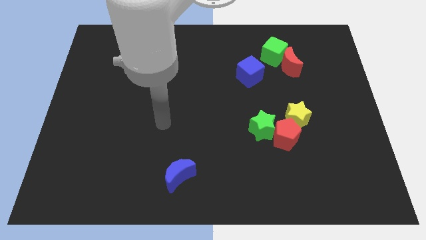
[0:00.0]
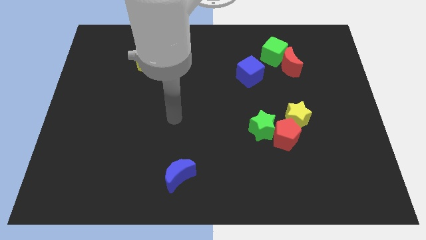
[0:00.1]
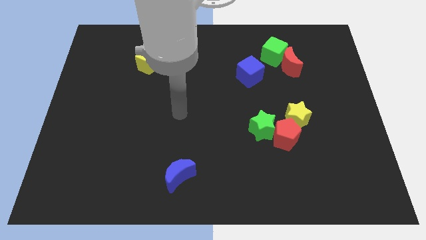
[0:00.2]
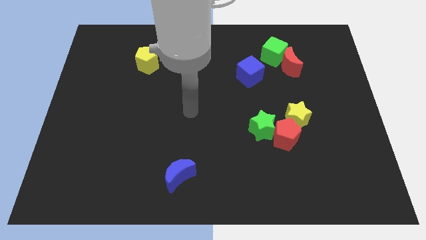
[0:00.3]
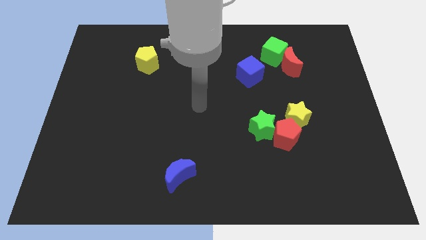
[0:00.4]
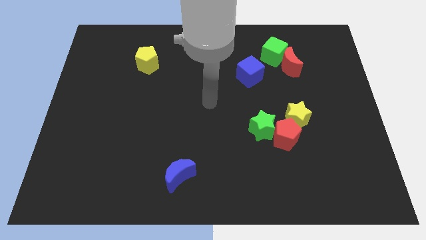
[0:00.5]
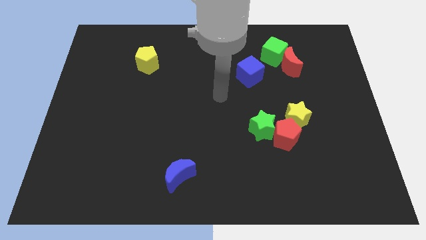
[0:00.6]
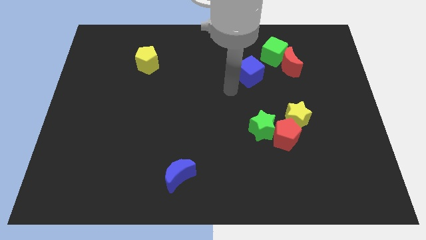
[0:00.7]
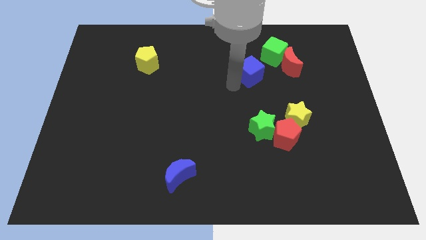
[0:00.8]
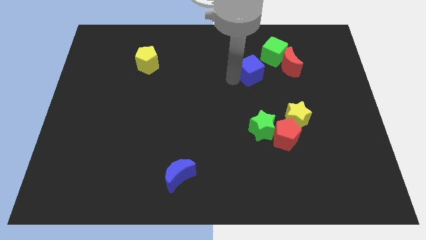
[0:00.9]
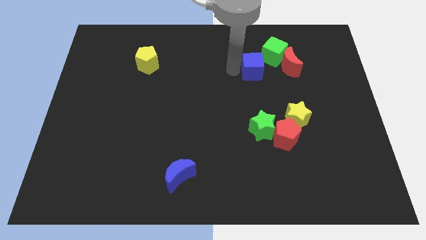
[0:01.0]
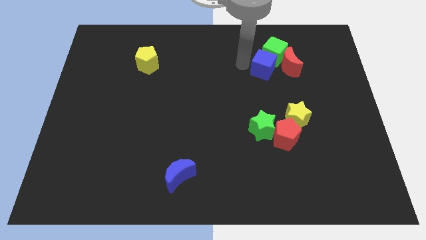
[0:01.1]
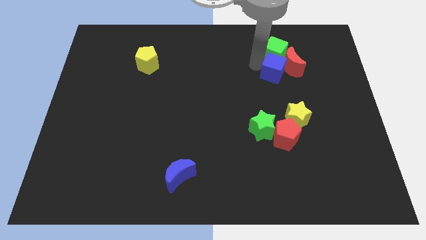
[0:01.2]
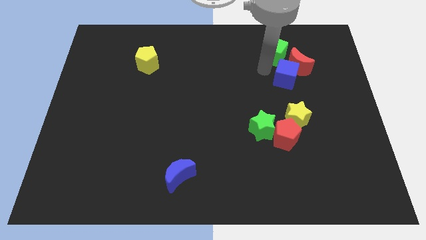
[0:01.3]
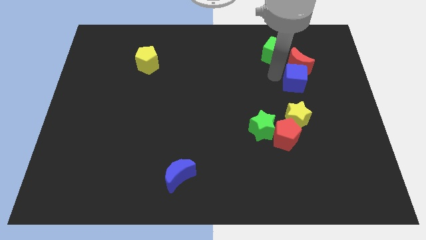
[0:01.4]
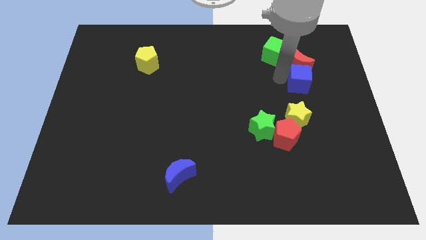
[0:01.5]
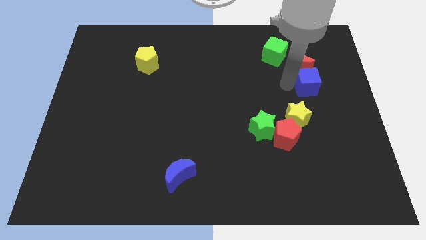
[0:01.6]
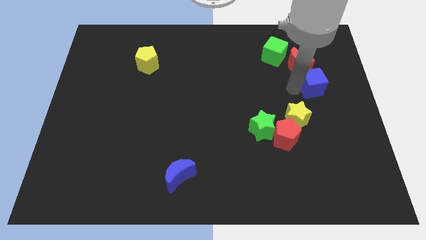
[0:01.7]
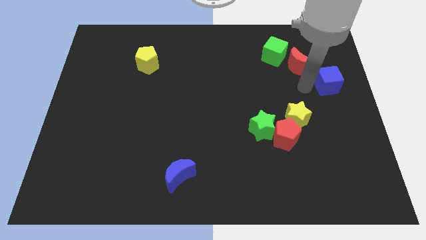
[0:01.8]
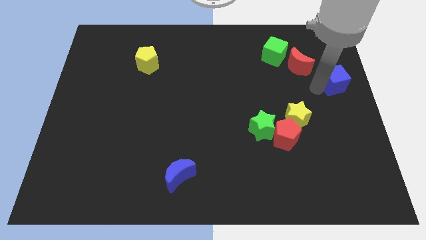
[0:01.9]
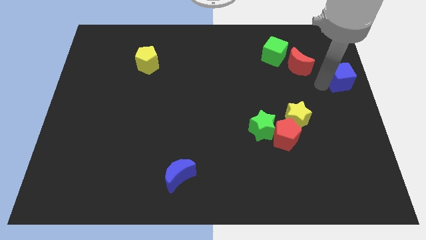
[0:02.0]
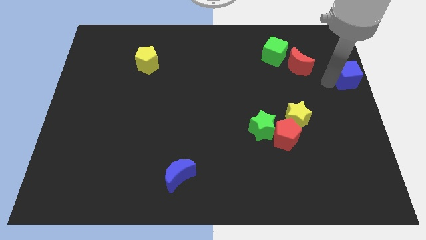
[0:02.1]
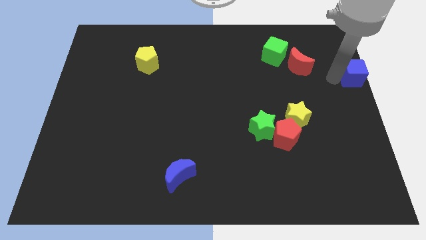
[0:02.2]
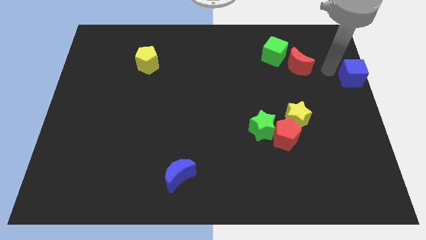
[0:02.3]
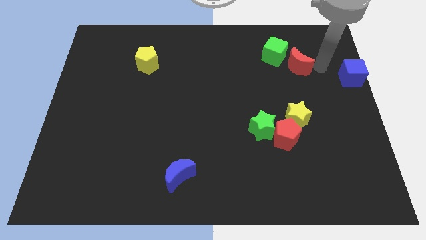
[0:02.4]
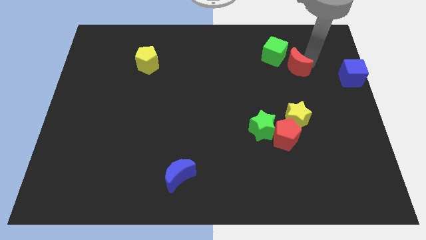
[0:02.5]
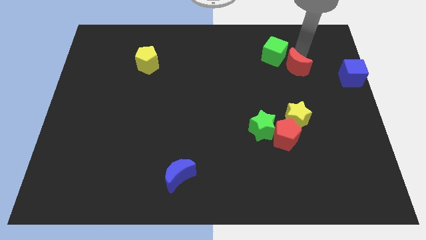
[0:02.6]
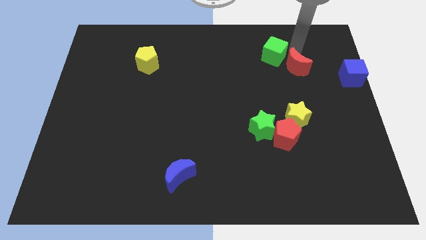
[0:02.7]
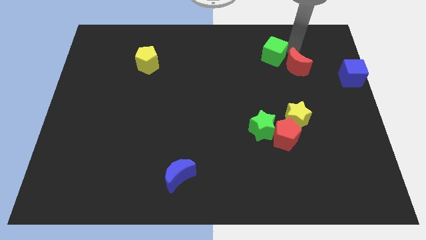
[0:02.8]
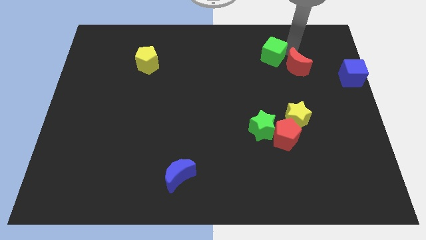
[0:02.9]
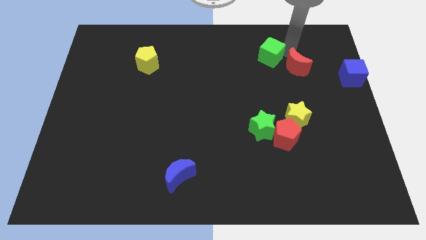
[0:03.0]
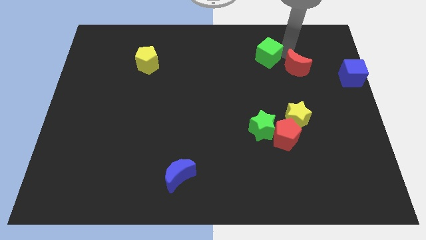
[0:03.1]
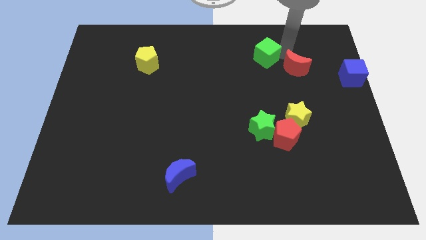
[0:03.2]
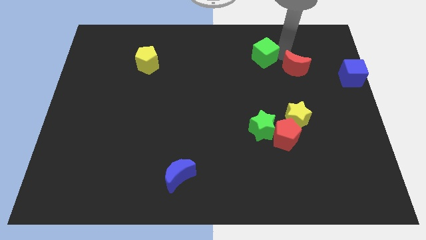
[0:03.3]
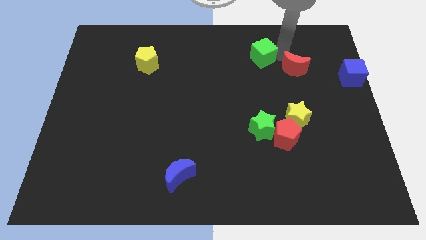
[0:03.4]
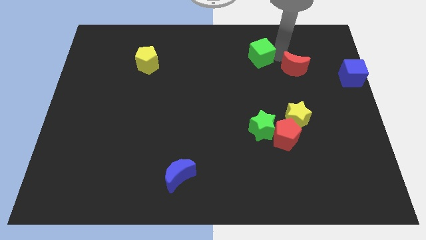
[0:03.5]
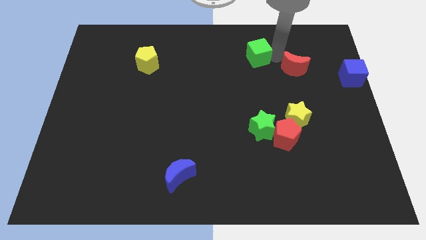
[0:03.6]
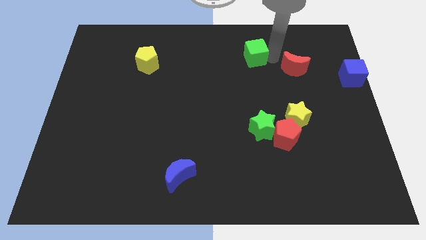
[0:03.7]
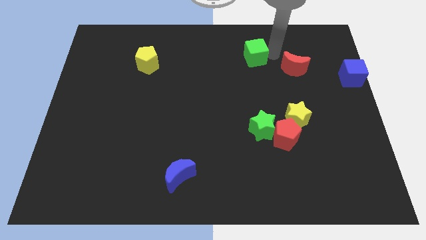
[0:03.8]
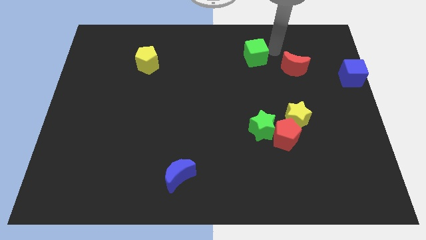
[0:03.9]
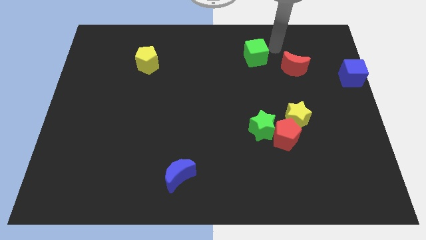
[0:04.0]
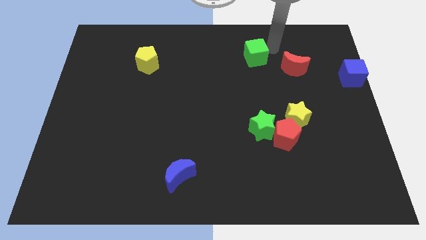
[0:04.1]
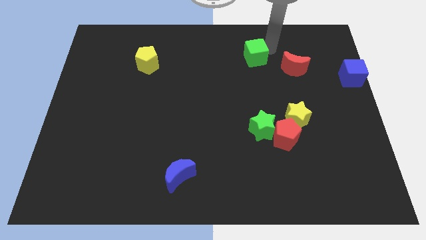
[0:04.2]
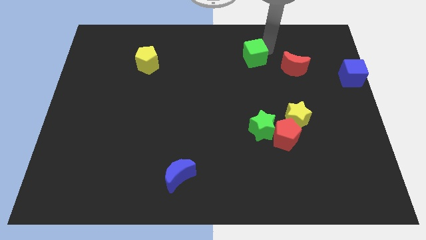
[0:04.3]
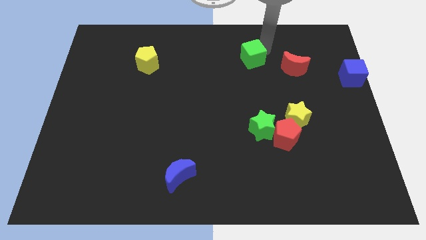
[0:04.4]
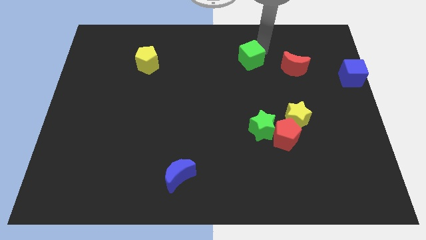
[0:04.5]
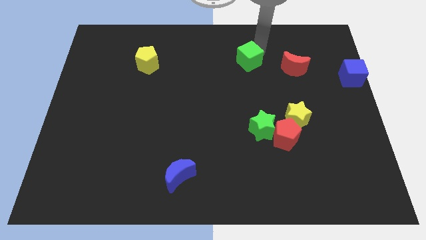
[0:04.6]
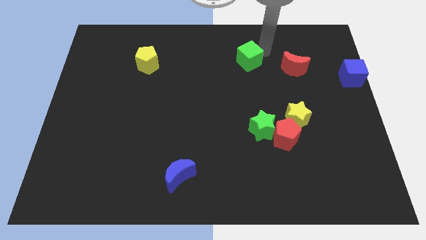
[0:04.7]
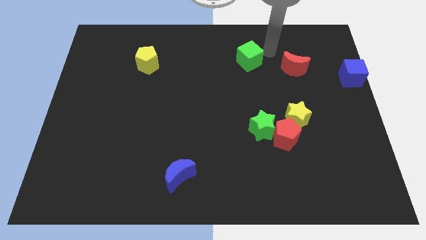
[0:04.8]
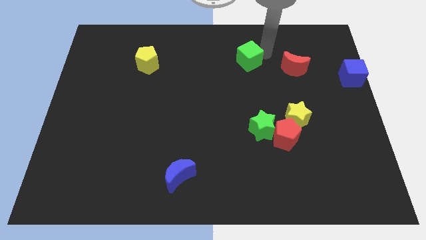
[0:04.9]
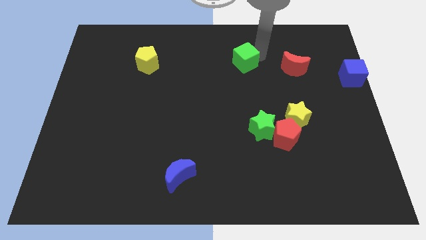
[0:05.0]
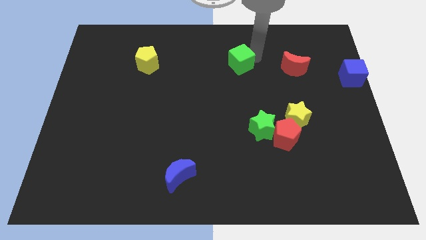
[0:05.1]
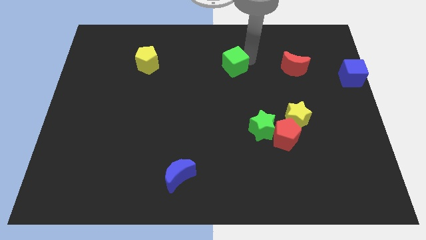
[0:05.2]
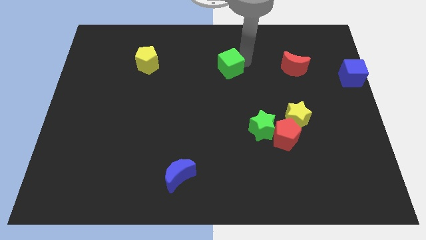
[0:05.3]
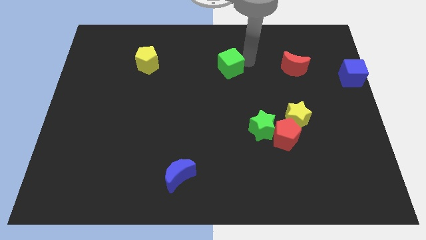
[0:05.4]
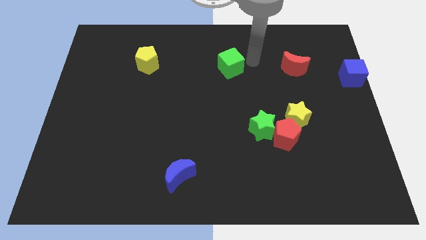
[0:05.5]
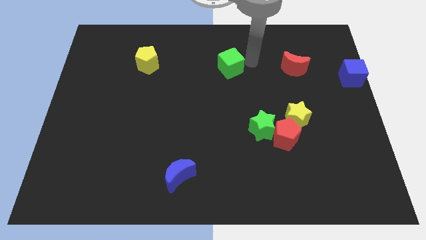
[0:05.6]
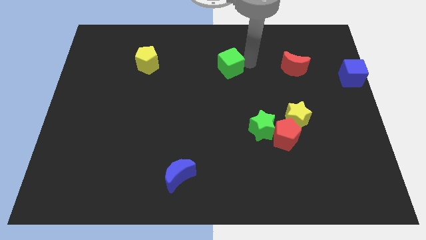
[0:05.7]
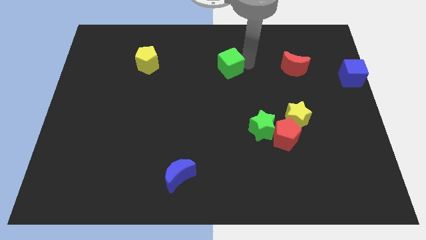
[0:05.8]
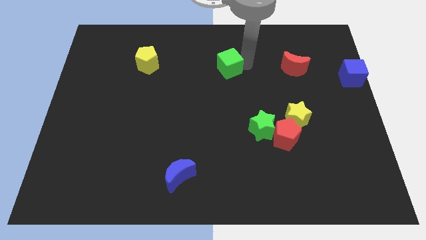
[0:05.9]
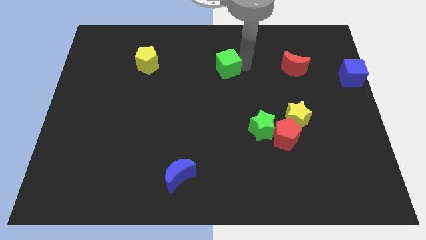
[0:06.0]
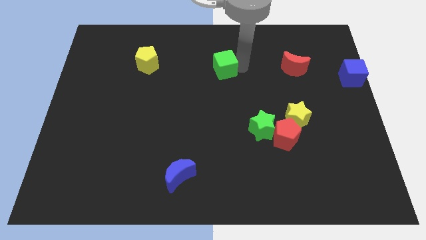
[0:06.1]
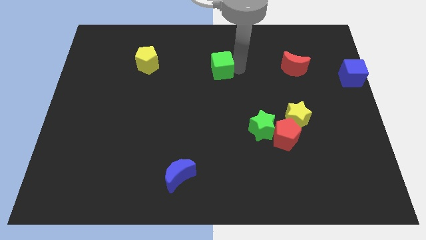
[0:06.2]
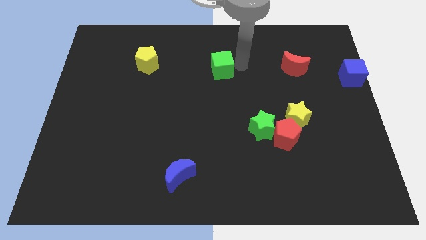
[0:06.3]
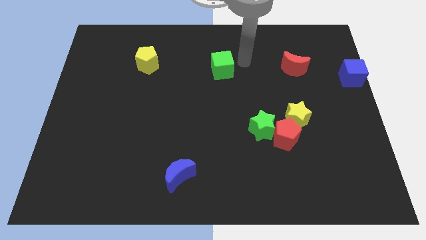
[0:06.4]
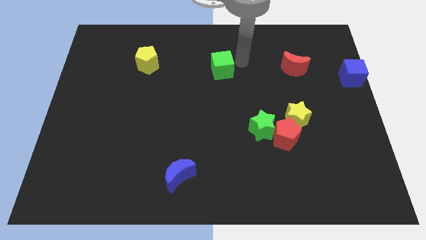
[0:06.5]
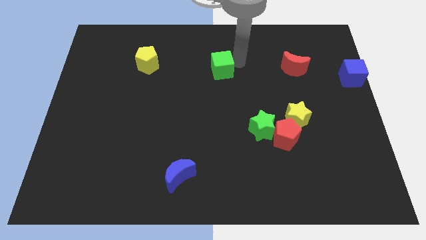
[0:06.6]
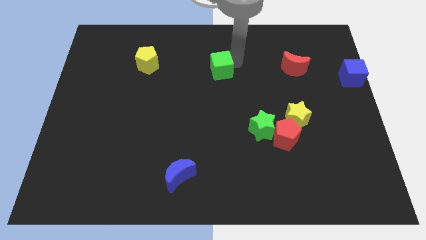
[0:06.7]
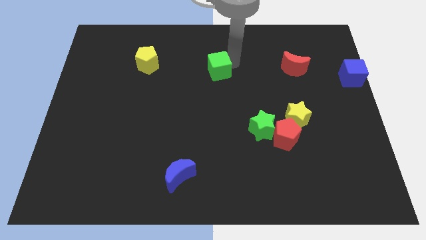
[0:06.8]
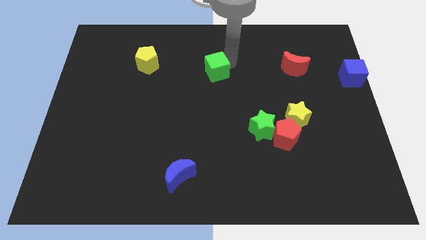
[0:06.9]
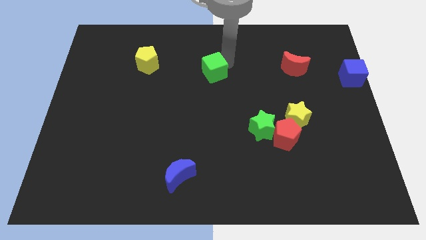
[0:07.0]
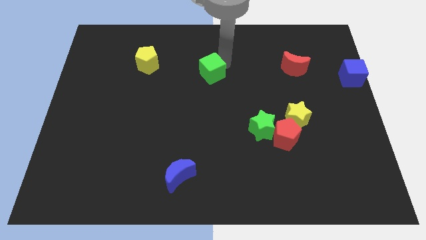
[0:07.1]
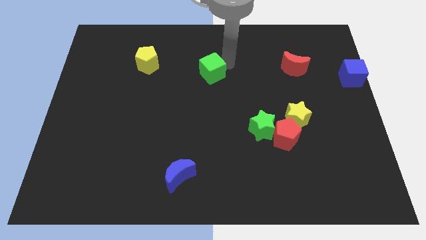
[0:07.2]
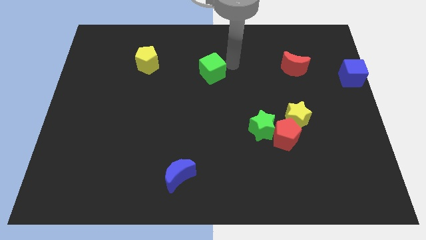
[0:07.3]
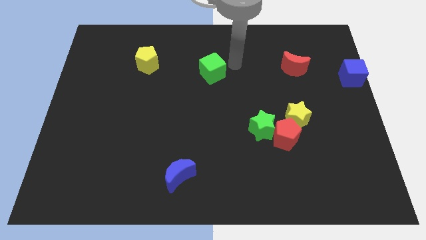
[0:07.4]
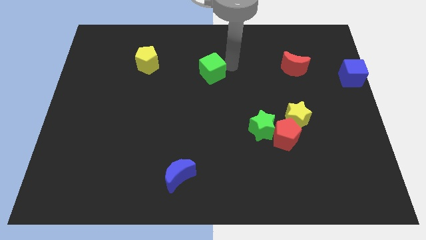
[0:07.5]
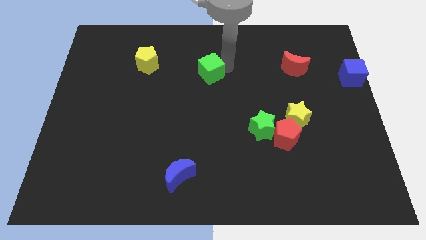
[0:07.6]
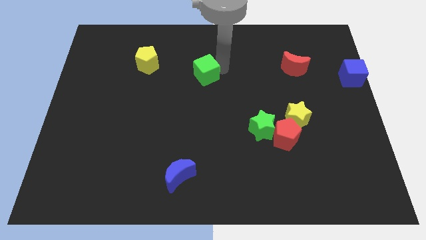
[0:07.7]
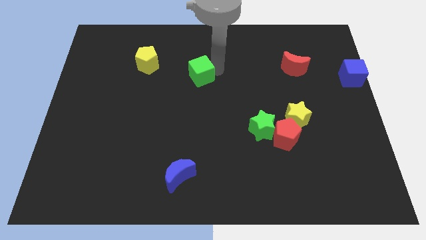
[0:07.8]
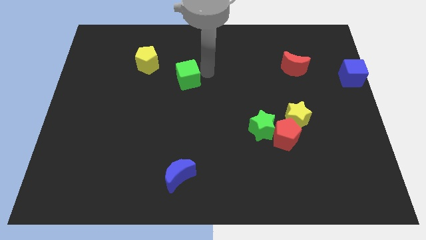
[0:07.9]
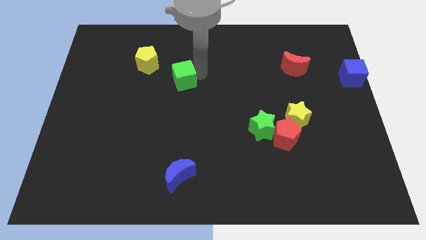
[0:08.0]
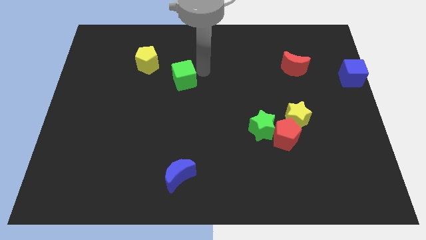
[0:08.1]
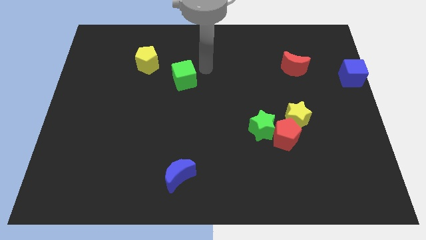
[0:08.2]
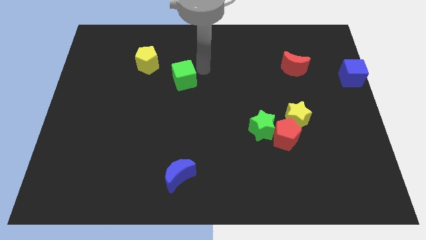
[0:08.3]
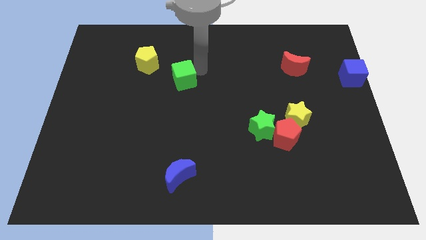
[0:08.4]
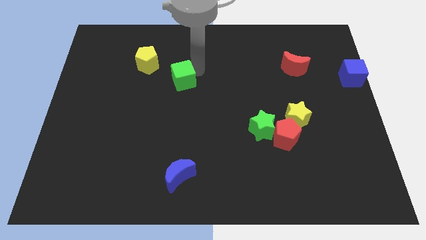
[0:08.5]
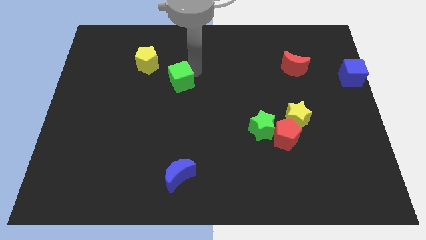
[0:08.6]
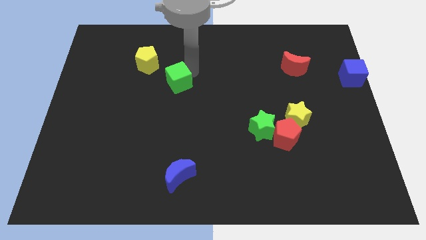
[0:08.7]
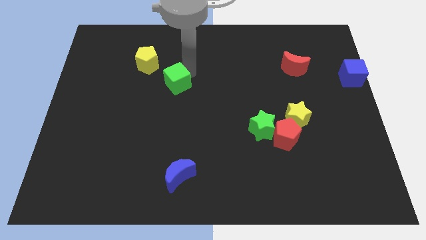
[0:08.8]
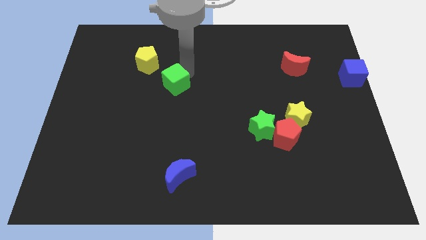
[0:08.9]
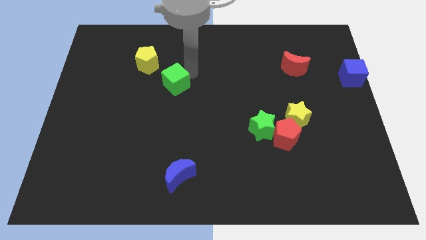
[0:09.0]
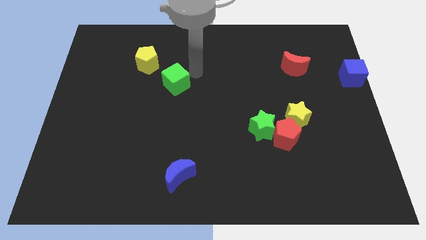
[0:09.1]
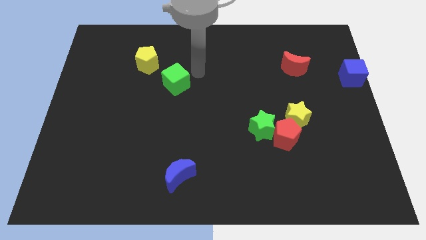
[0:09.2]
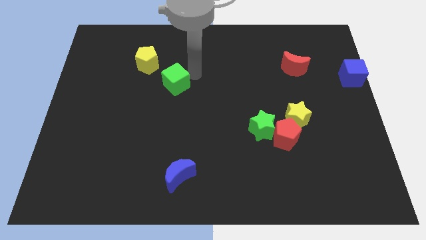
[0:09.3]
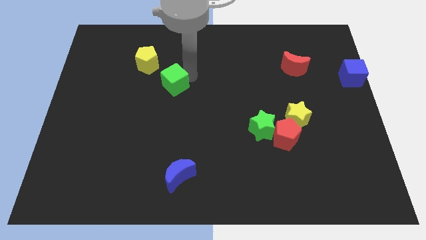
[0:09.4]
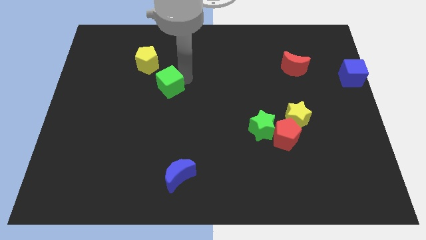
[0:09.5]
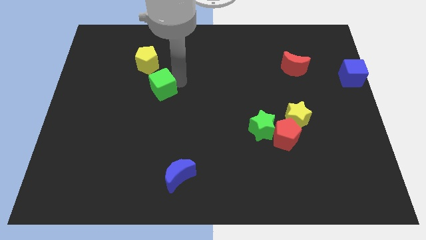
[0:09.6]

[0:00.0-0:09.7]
put the green cube below the yellow pentagon
